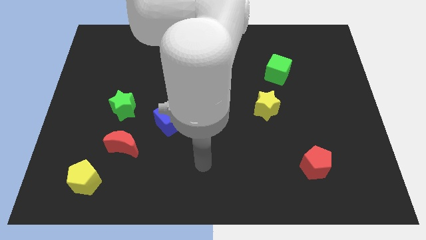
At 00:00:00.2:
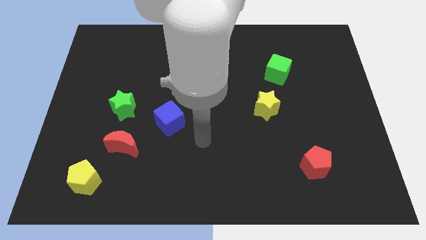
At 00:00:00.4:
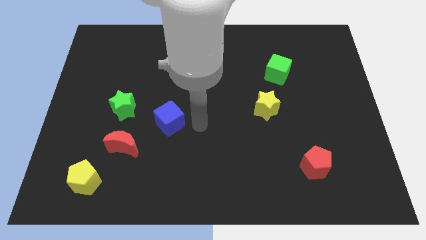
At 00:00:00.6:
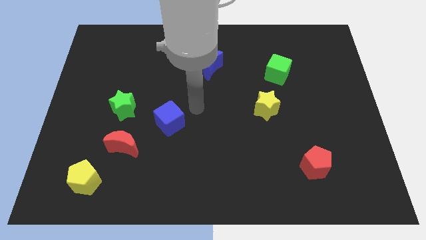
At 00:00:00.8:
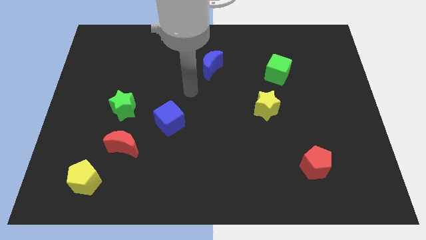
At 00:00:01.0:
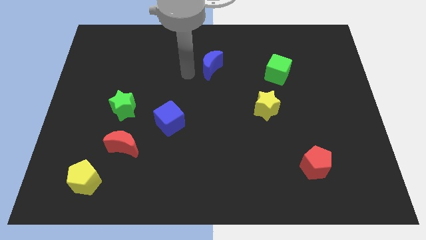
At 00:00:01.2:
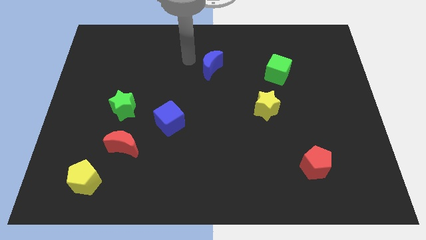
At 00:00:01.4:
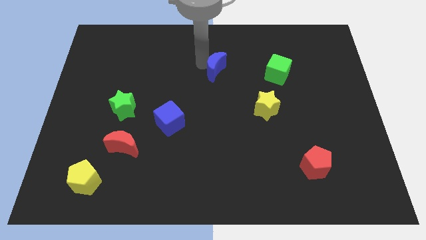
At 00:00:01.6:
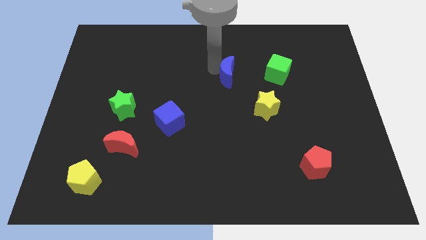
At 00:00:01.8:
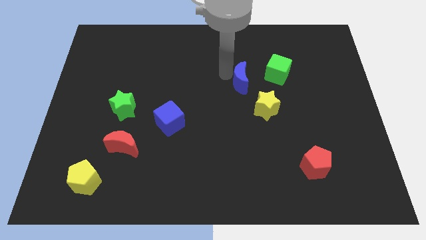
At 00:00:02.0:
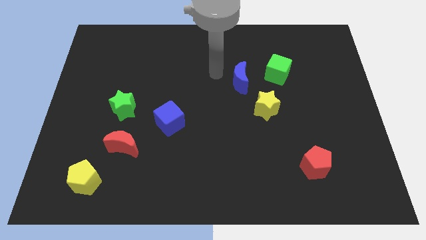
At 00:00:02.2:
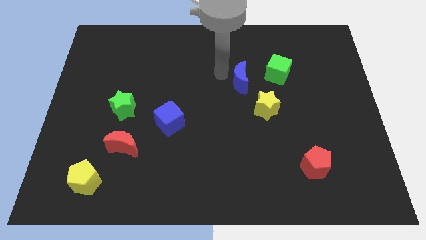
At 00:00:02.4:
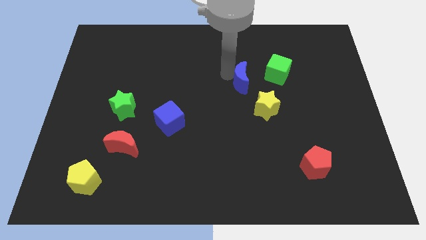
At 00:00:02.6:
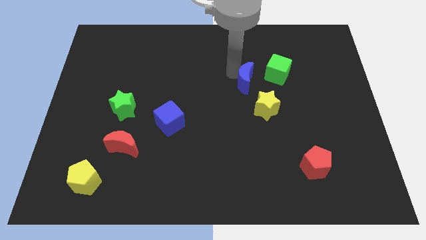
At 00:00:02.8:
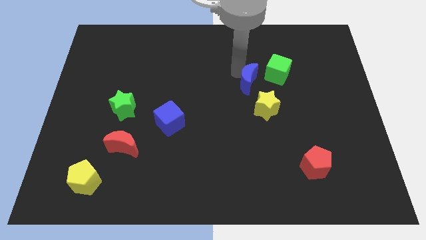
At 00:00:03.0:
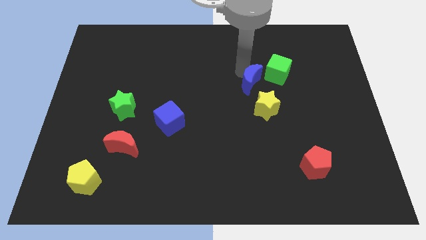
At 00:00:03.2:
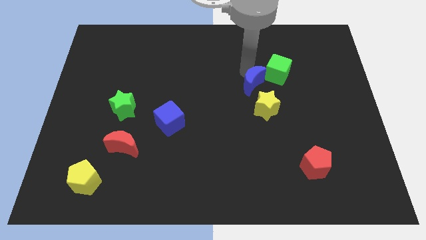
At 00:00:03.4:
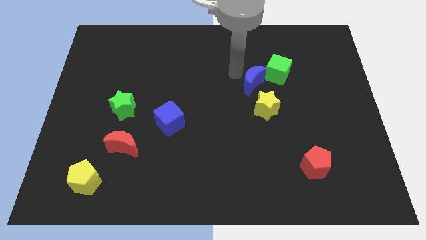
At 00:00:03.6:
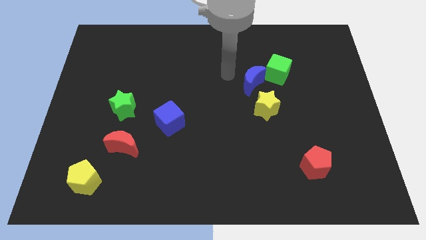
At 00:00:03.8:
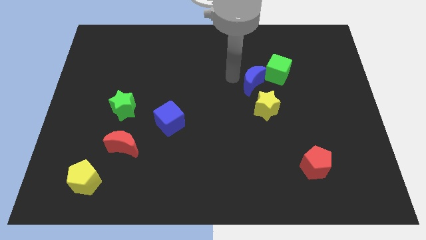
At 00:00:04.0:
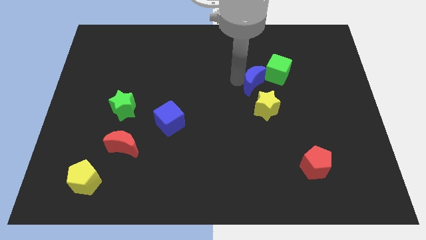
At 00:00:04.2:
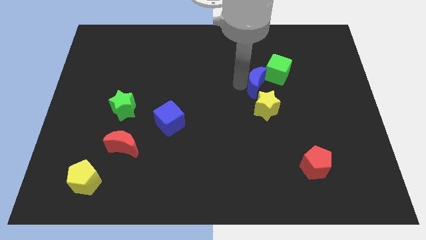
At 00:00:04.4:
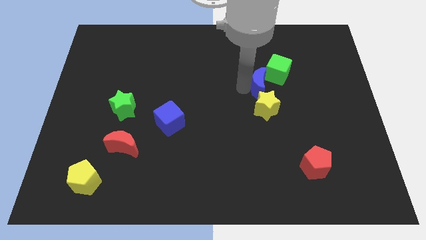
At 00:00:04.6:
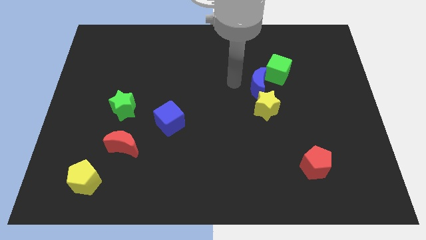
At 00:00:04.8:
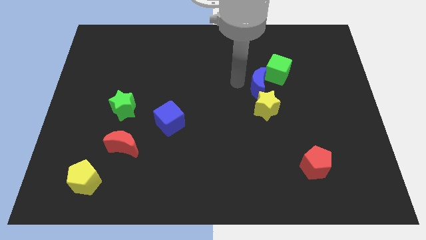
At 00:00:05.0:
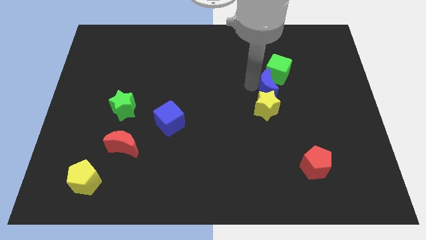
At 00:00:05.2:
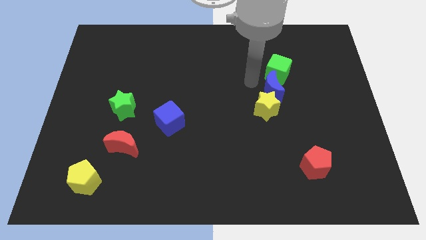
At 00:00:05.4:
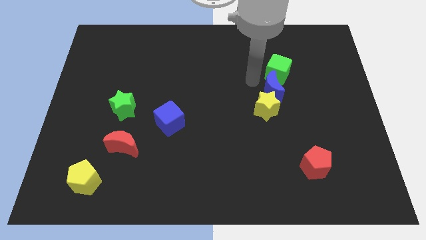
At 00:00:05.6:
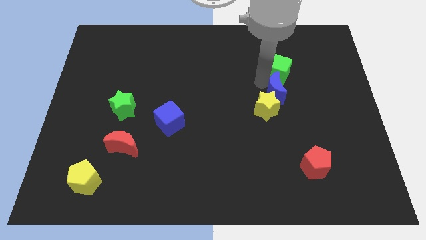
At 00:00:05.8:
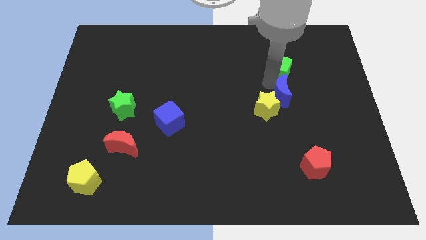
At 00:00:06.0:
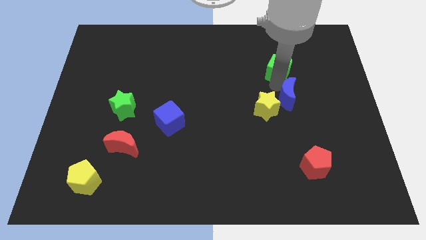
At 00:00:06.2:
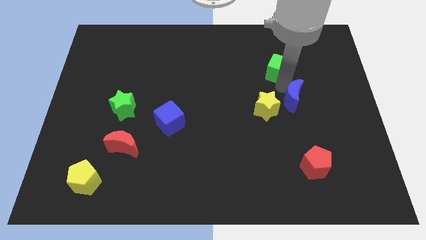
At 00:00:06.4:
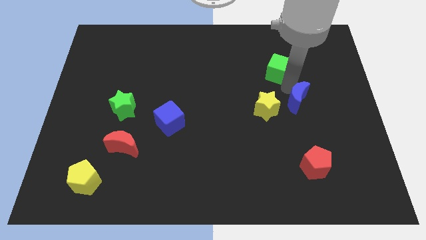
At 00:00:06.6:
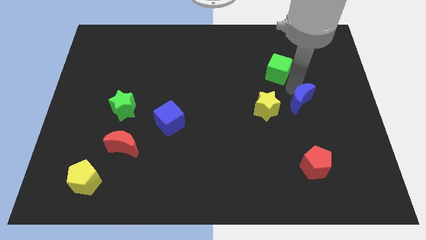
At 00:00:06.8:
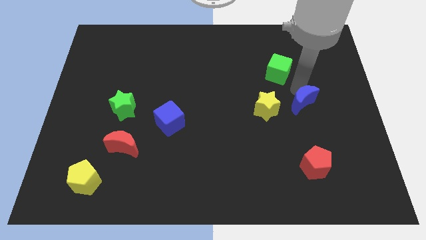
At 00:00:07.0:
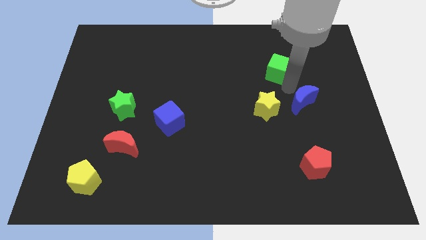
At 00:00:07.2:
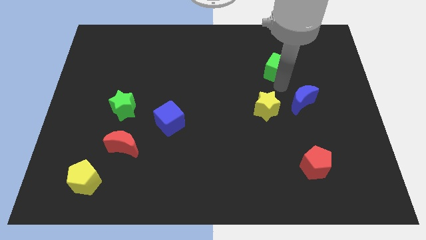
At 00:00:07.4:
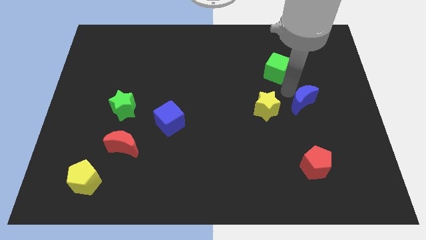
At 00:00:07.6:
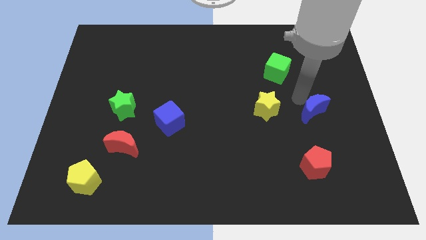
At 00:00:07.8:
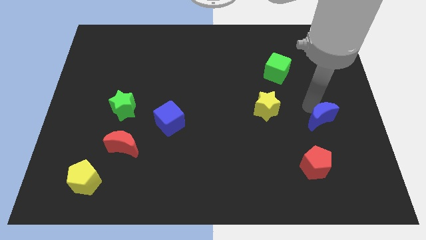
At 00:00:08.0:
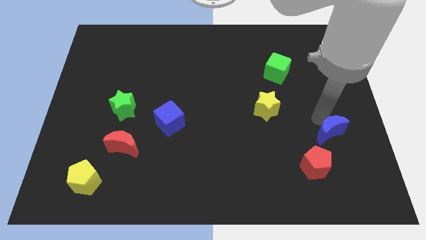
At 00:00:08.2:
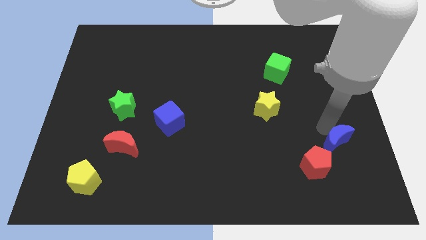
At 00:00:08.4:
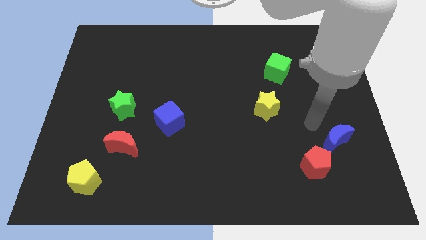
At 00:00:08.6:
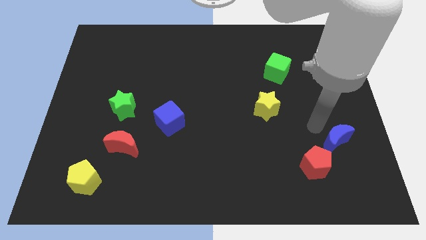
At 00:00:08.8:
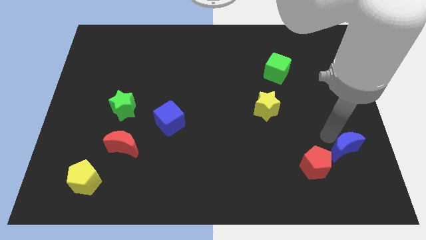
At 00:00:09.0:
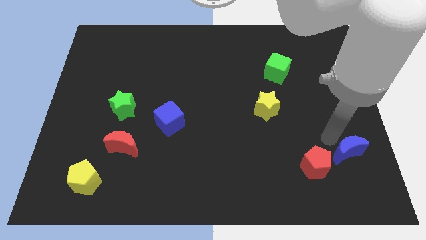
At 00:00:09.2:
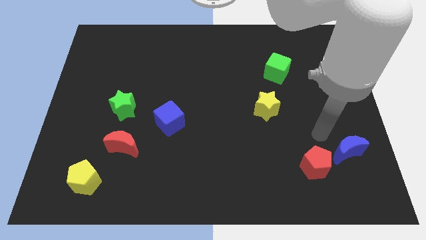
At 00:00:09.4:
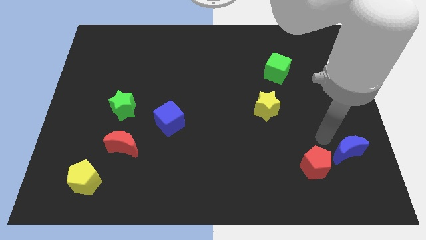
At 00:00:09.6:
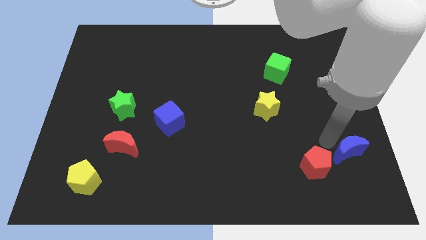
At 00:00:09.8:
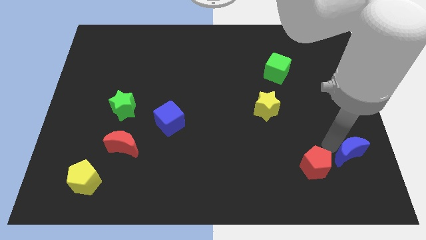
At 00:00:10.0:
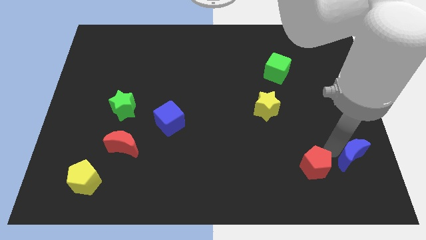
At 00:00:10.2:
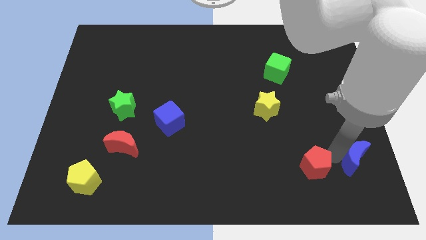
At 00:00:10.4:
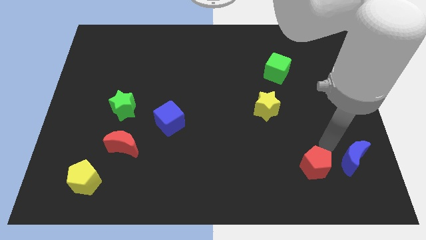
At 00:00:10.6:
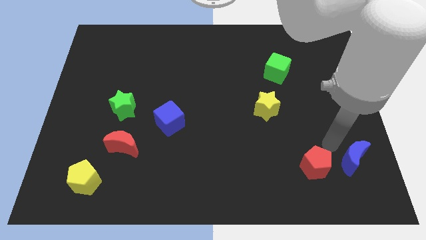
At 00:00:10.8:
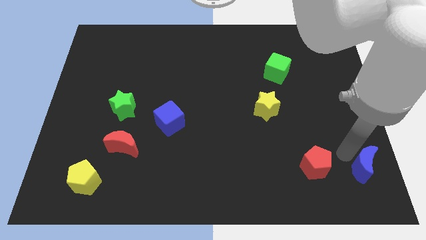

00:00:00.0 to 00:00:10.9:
put the blue moon to the bottom right corner

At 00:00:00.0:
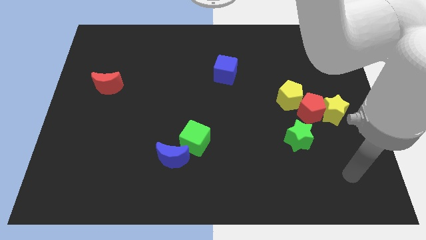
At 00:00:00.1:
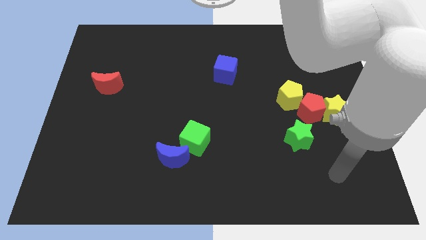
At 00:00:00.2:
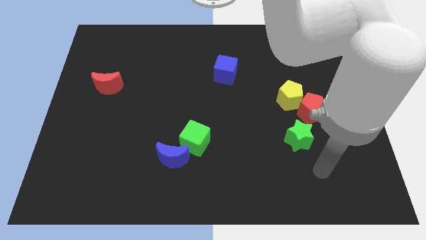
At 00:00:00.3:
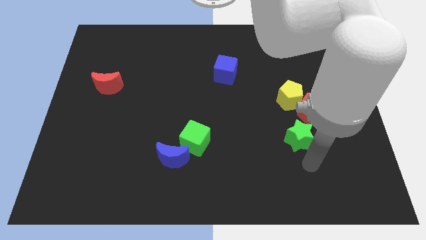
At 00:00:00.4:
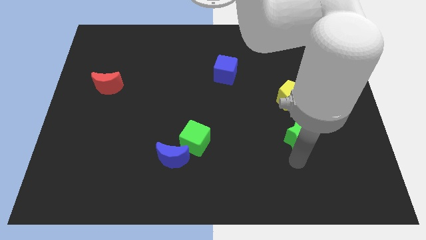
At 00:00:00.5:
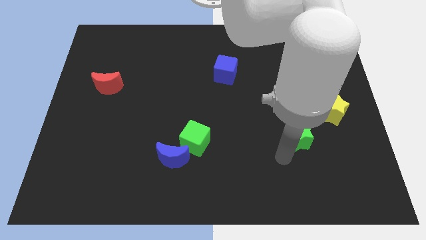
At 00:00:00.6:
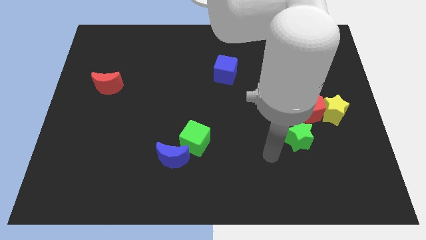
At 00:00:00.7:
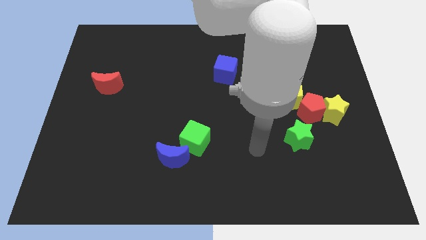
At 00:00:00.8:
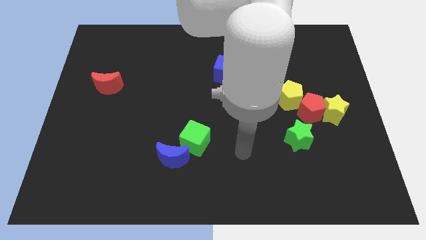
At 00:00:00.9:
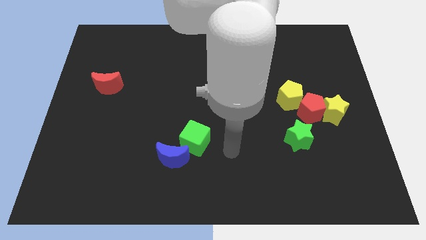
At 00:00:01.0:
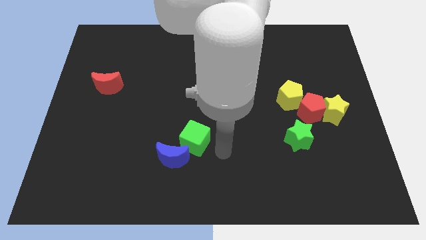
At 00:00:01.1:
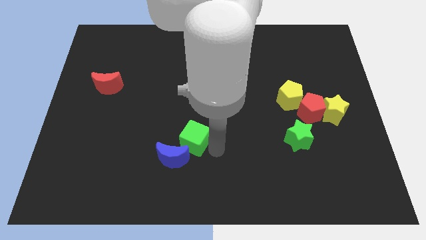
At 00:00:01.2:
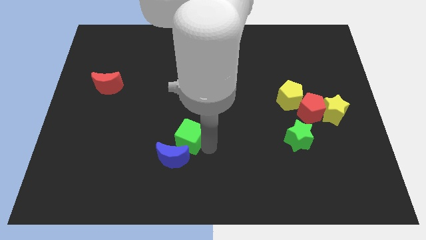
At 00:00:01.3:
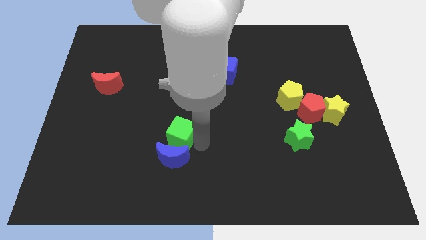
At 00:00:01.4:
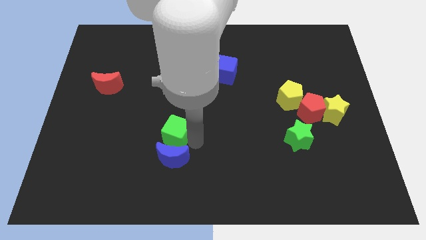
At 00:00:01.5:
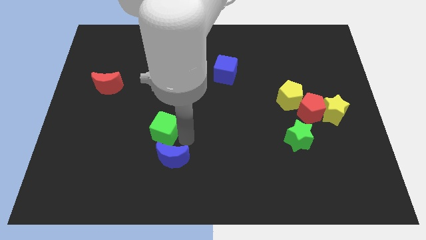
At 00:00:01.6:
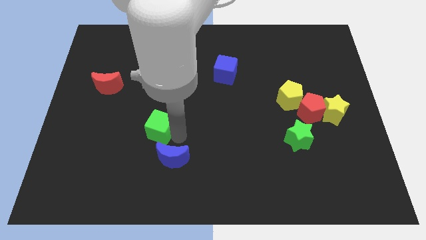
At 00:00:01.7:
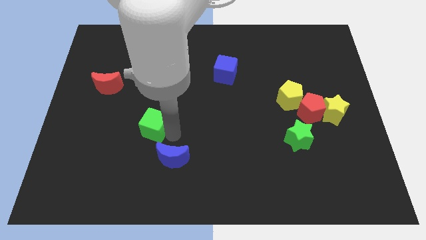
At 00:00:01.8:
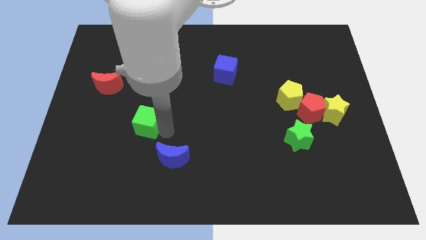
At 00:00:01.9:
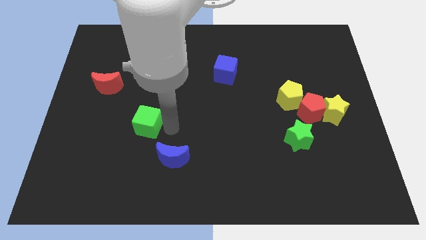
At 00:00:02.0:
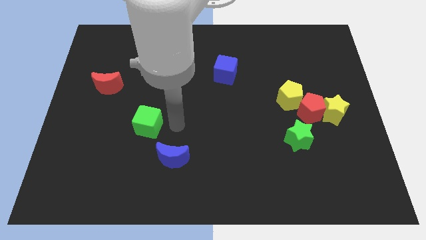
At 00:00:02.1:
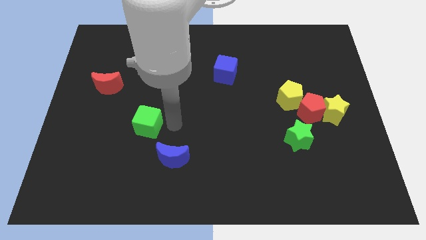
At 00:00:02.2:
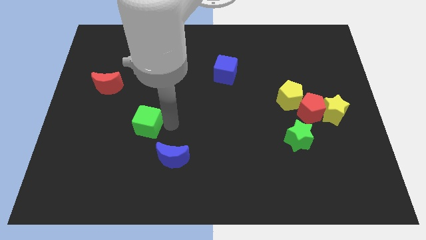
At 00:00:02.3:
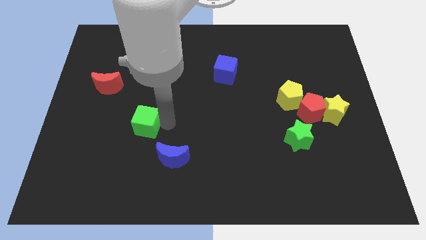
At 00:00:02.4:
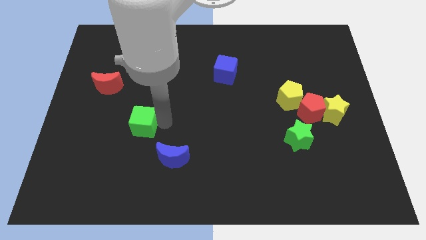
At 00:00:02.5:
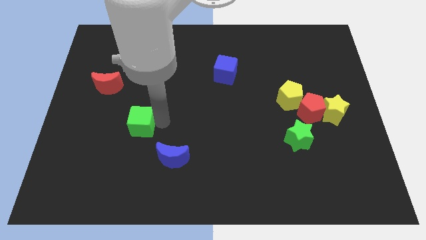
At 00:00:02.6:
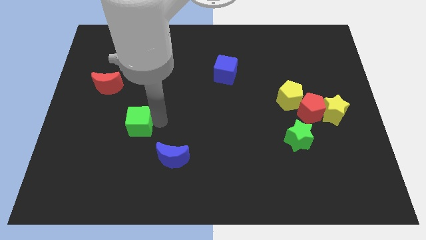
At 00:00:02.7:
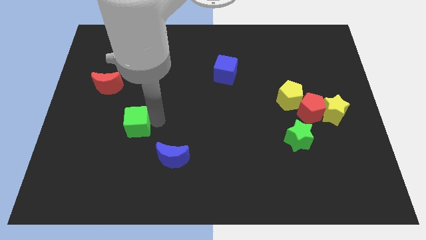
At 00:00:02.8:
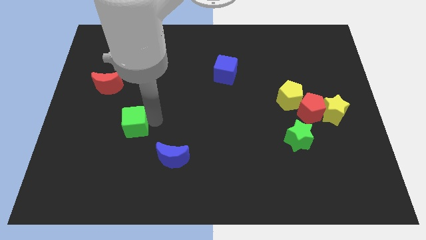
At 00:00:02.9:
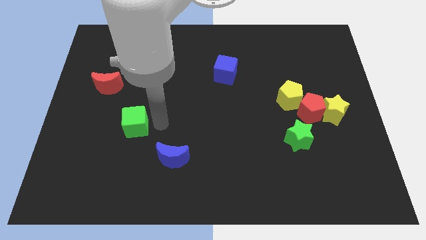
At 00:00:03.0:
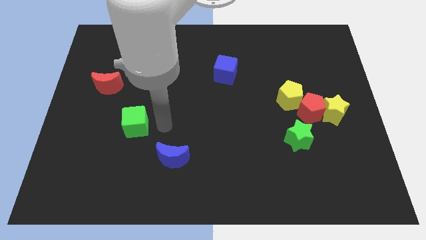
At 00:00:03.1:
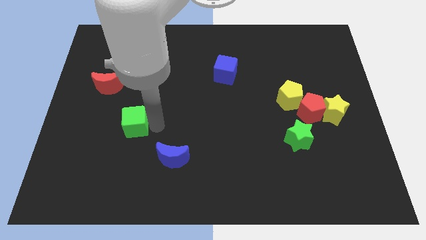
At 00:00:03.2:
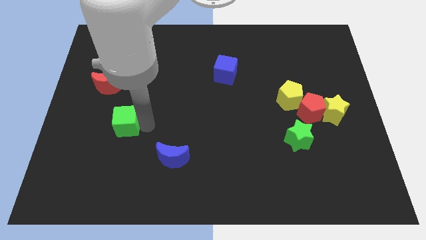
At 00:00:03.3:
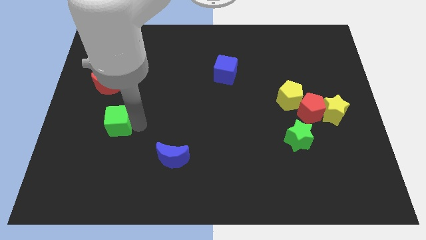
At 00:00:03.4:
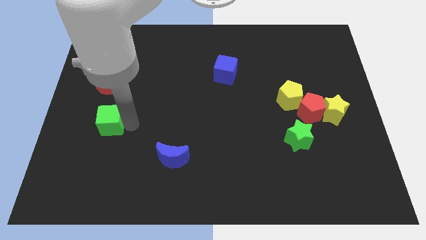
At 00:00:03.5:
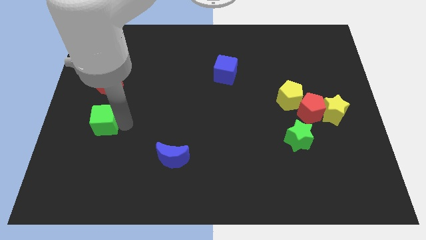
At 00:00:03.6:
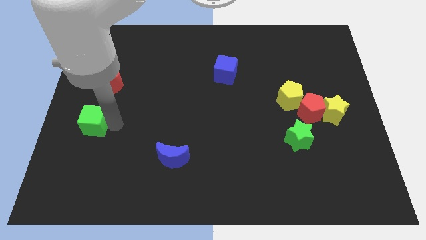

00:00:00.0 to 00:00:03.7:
push the green cube to the left side of the board
